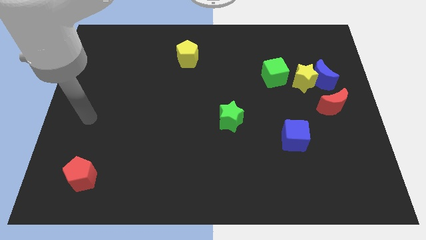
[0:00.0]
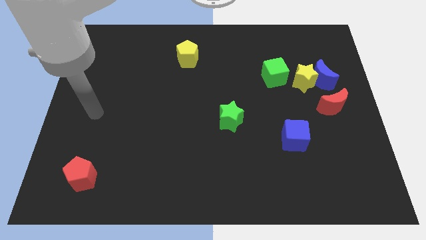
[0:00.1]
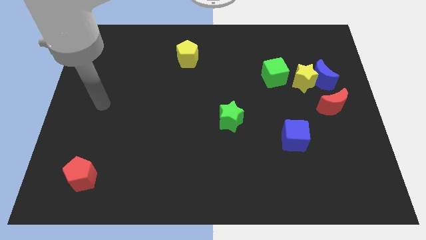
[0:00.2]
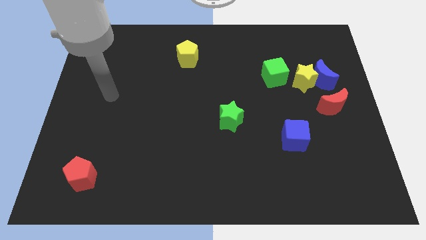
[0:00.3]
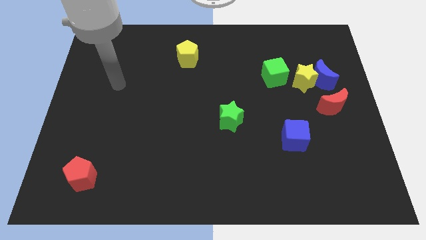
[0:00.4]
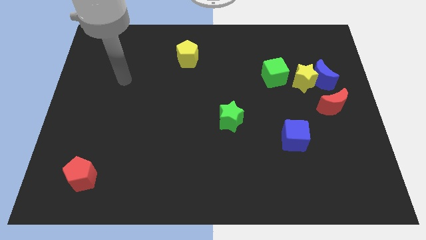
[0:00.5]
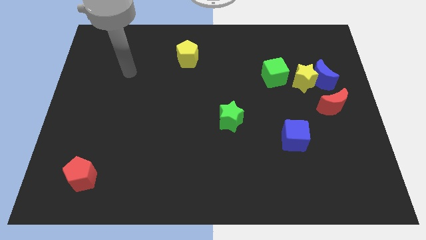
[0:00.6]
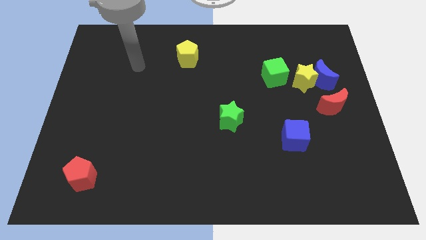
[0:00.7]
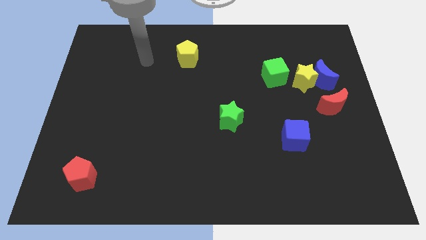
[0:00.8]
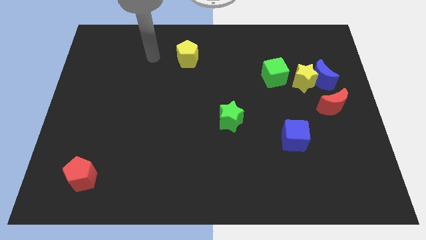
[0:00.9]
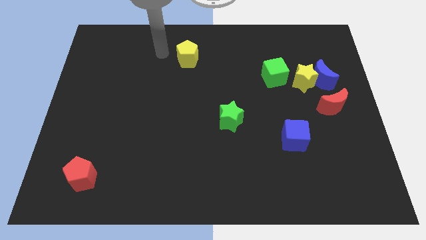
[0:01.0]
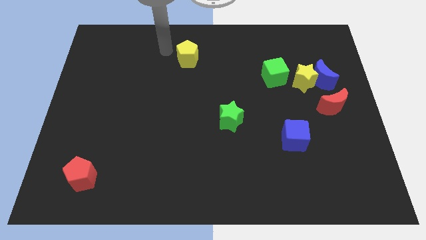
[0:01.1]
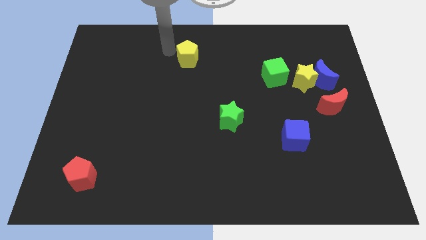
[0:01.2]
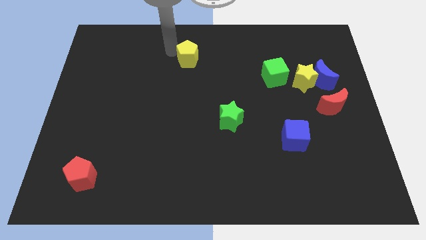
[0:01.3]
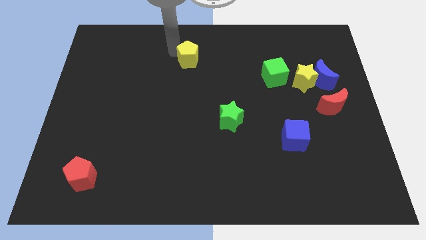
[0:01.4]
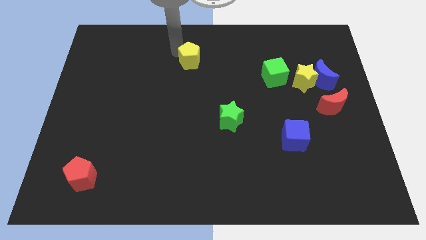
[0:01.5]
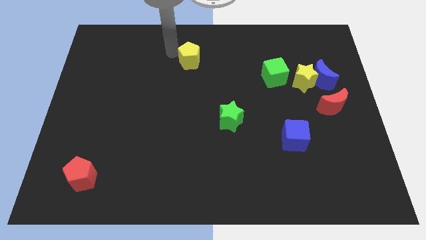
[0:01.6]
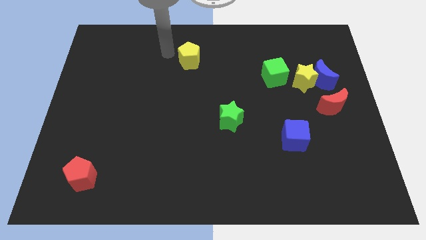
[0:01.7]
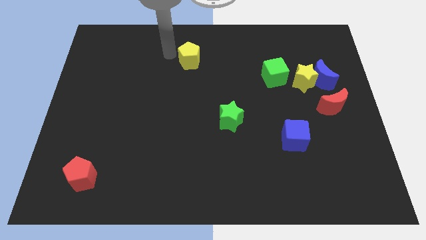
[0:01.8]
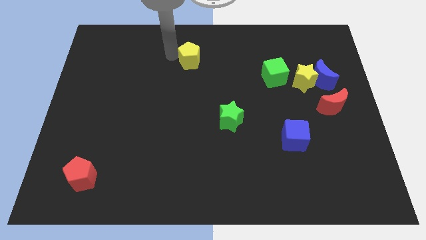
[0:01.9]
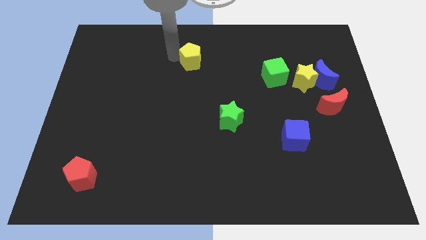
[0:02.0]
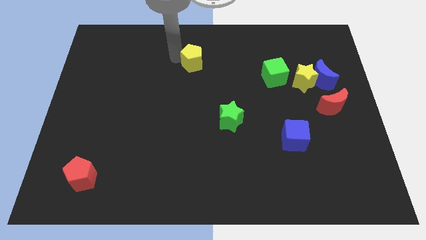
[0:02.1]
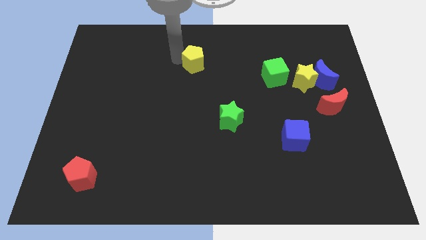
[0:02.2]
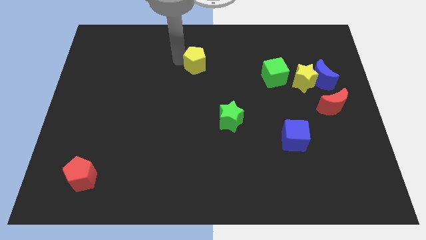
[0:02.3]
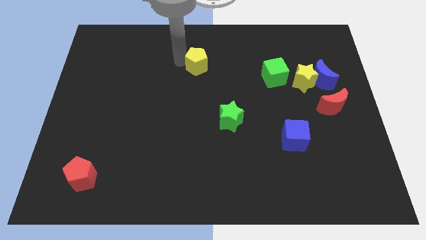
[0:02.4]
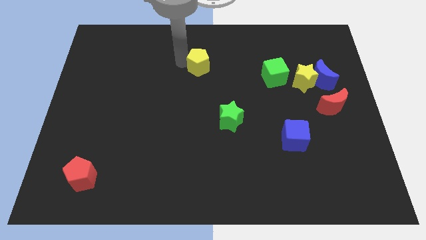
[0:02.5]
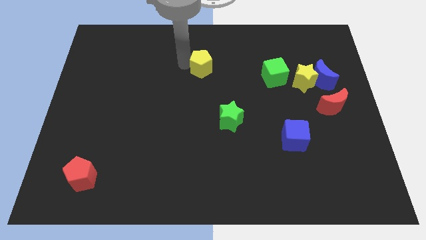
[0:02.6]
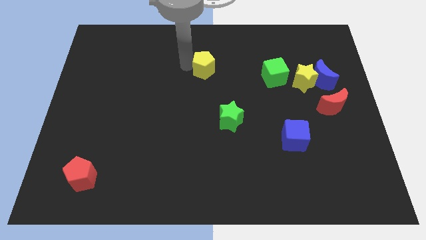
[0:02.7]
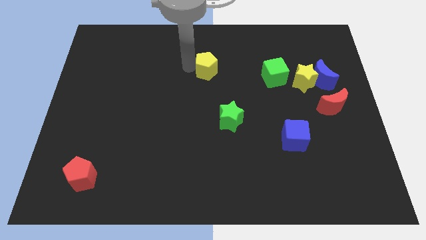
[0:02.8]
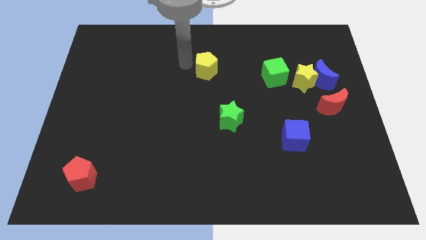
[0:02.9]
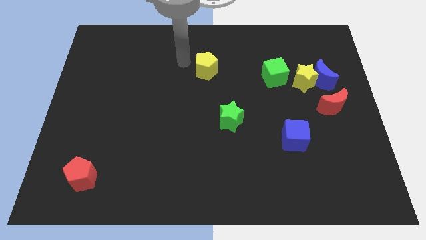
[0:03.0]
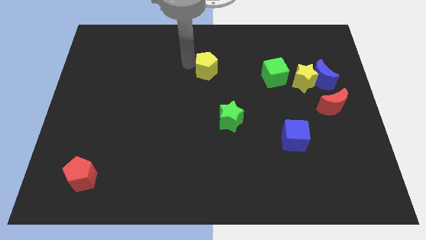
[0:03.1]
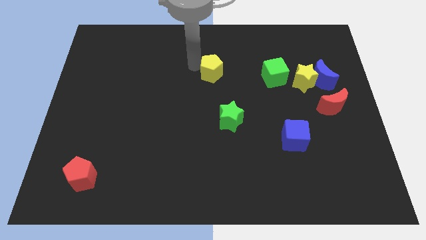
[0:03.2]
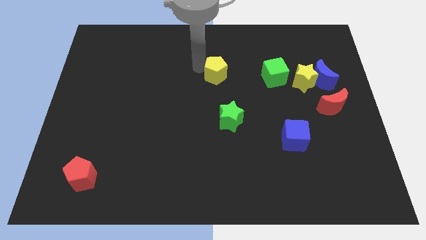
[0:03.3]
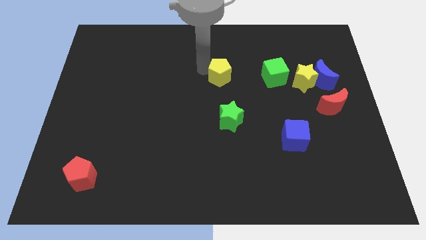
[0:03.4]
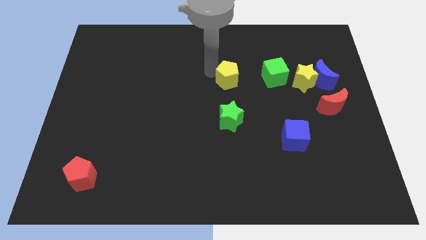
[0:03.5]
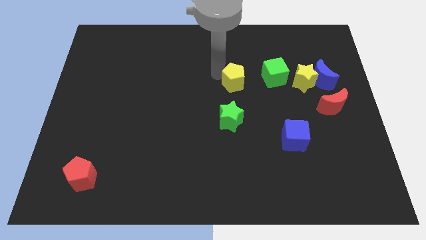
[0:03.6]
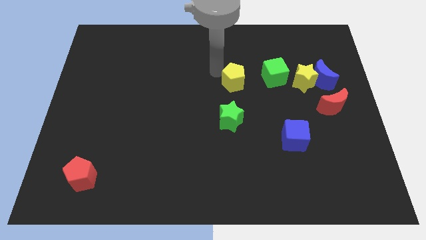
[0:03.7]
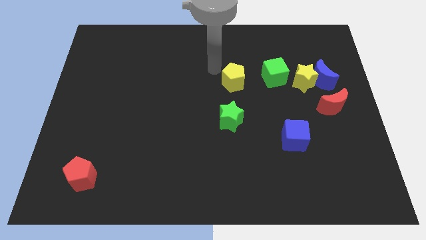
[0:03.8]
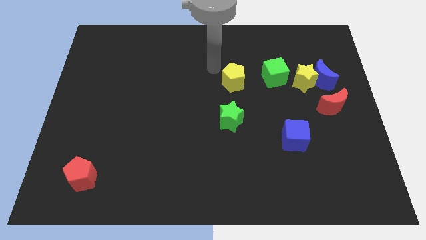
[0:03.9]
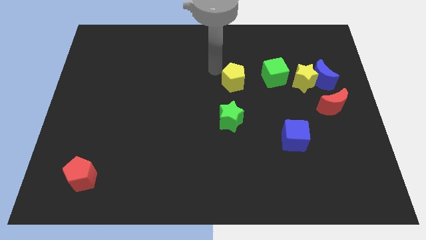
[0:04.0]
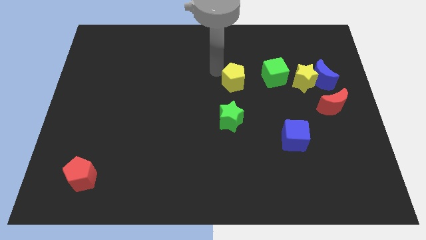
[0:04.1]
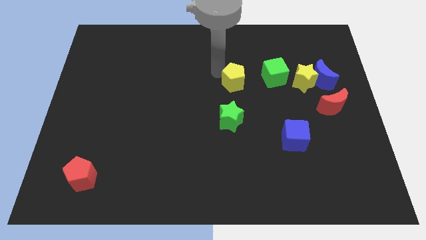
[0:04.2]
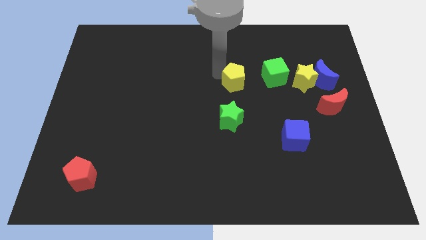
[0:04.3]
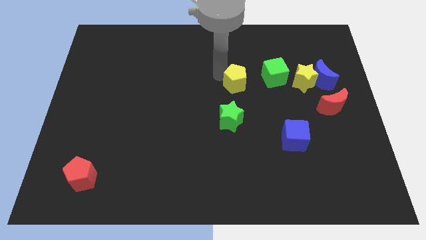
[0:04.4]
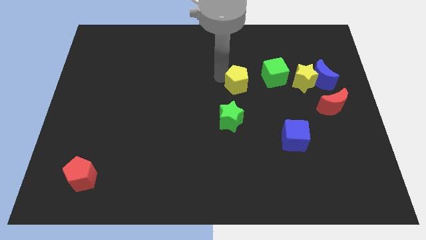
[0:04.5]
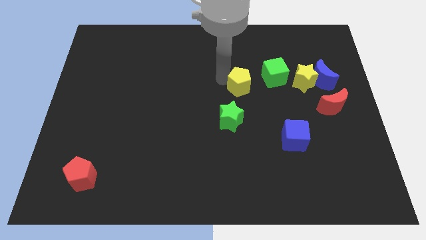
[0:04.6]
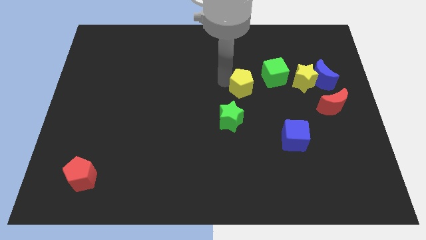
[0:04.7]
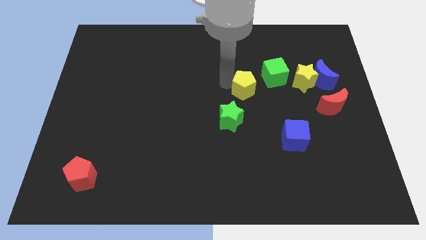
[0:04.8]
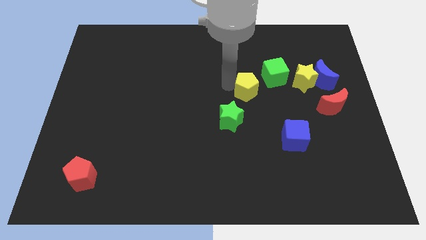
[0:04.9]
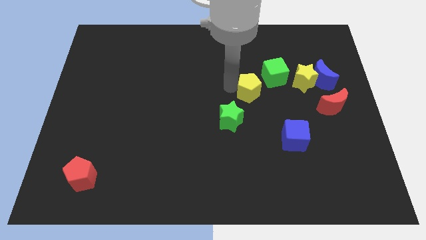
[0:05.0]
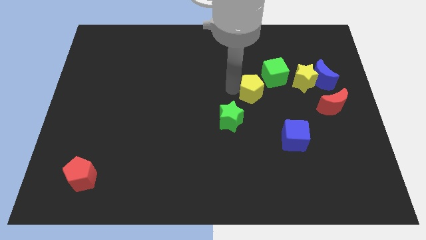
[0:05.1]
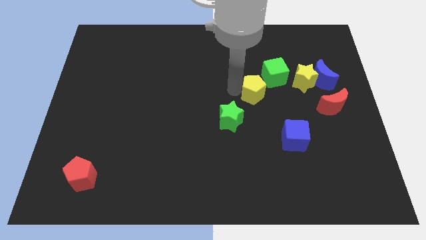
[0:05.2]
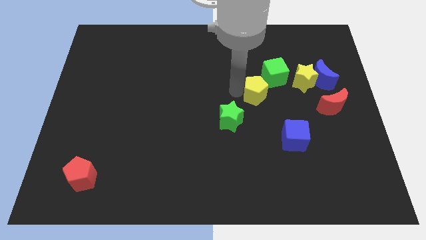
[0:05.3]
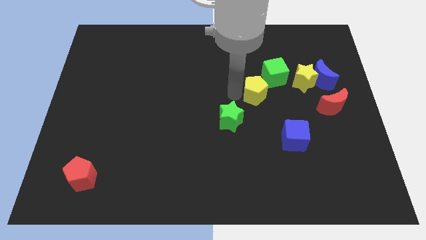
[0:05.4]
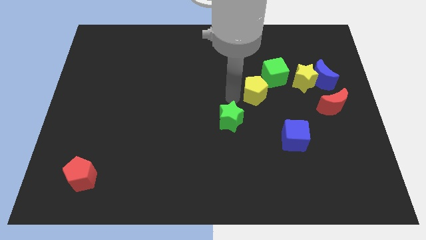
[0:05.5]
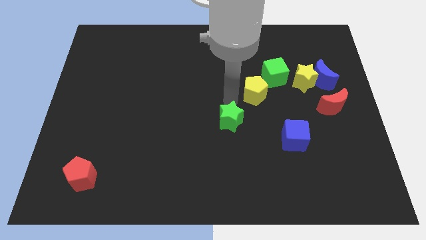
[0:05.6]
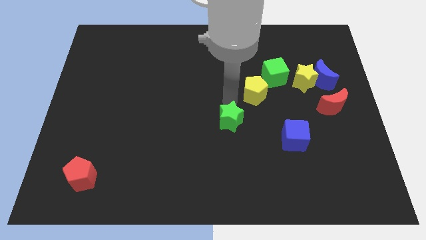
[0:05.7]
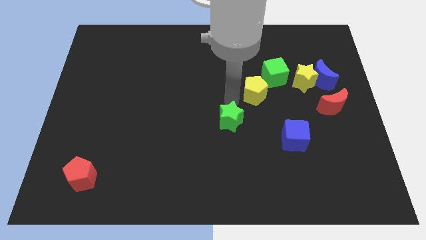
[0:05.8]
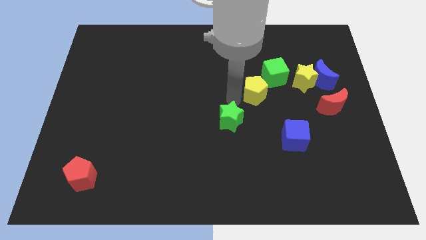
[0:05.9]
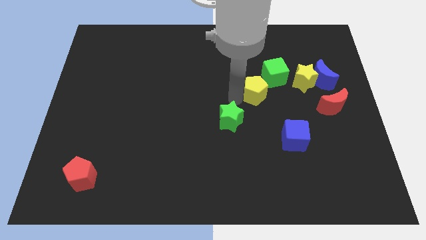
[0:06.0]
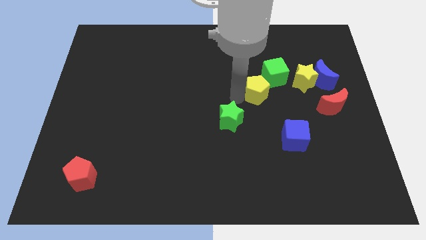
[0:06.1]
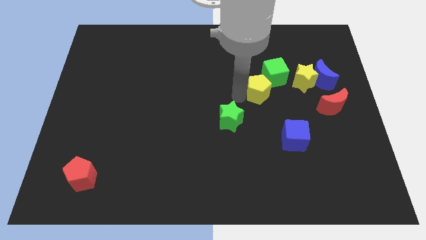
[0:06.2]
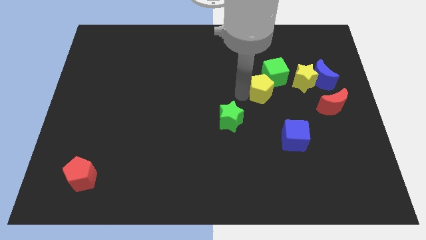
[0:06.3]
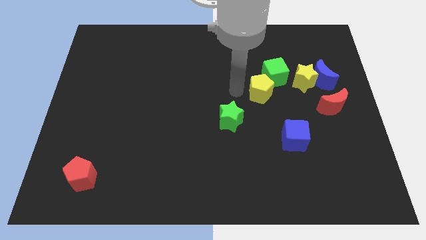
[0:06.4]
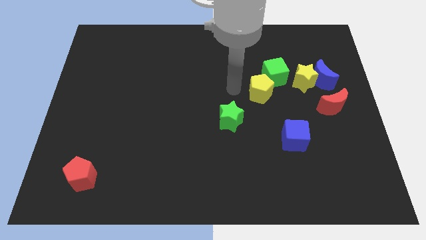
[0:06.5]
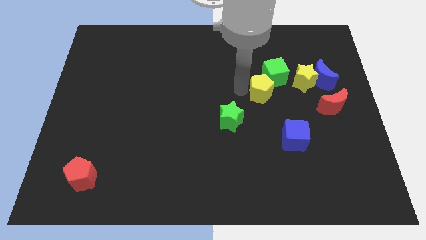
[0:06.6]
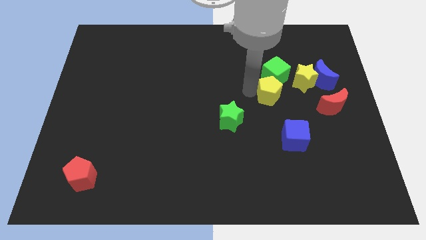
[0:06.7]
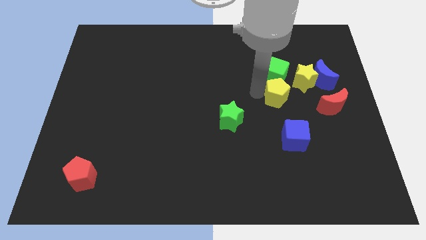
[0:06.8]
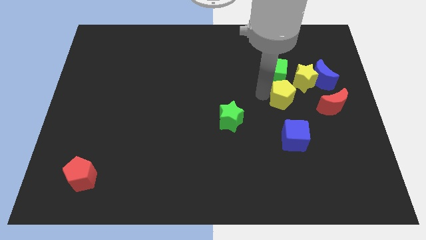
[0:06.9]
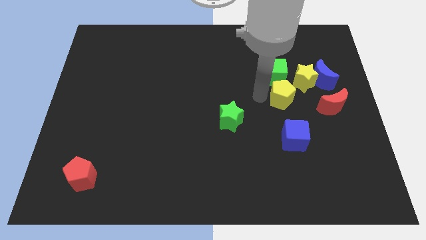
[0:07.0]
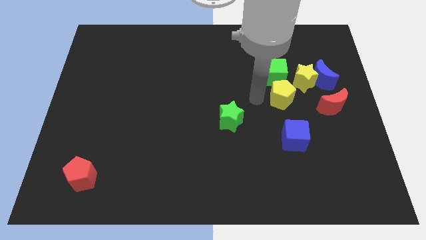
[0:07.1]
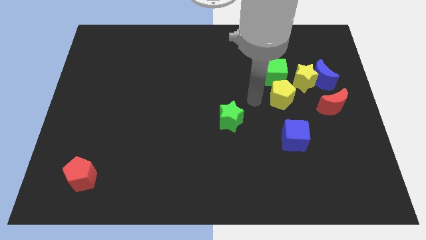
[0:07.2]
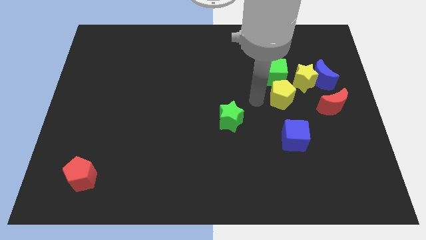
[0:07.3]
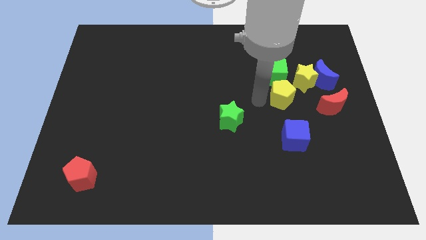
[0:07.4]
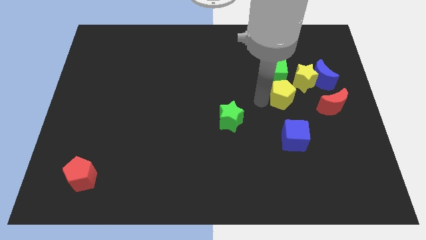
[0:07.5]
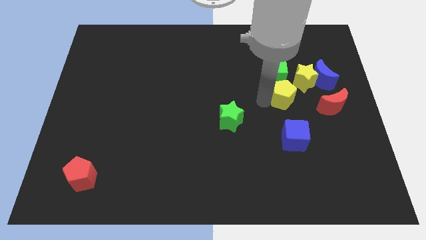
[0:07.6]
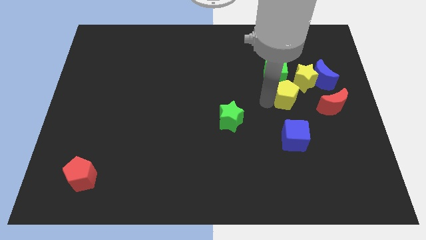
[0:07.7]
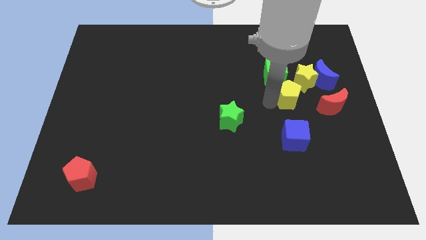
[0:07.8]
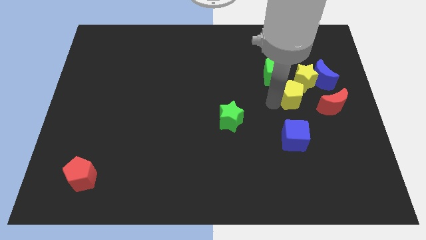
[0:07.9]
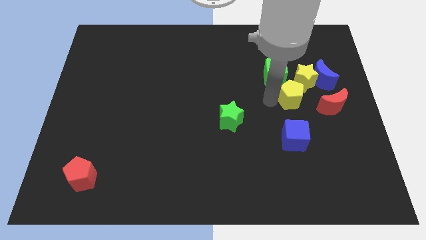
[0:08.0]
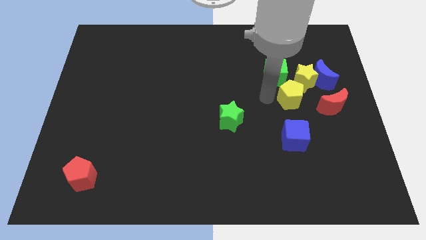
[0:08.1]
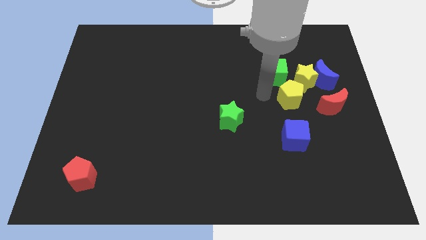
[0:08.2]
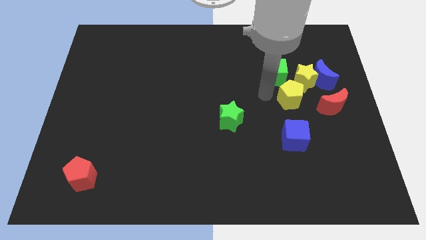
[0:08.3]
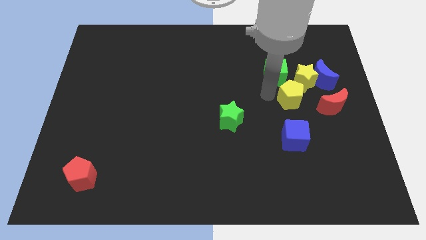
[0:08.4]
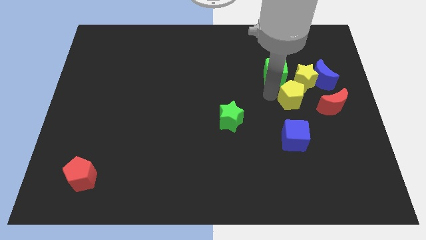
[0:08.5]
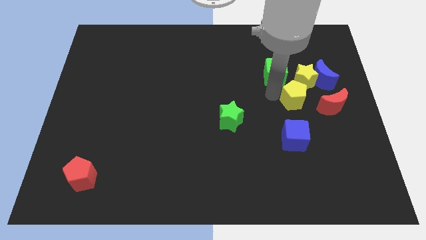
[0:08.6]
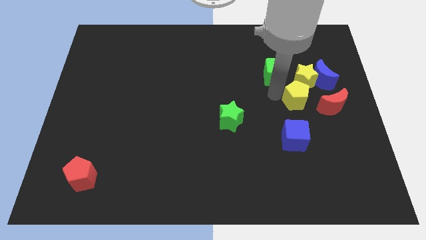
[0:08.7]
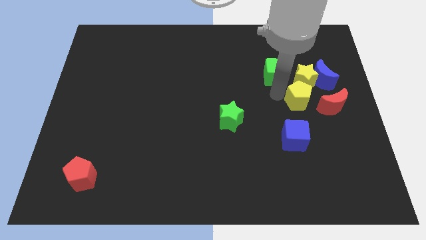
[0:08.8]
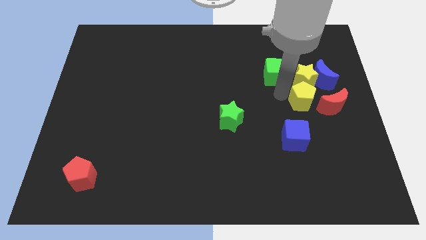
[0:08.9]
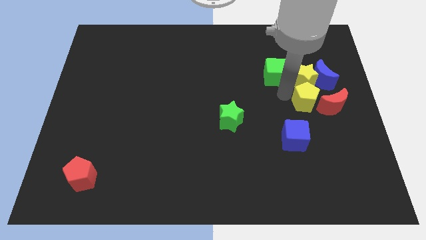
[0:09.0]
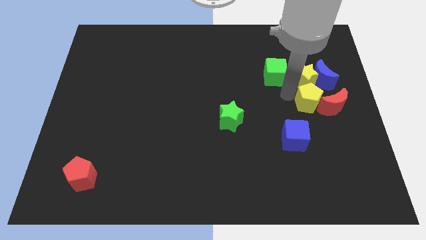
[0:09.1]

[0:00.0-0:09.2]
push the yellow pentagon to the red moon
